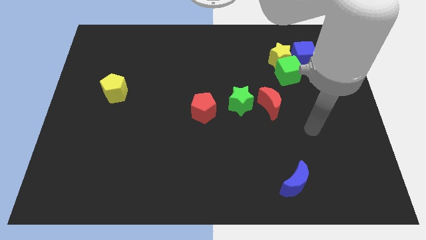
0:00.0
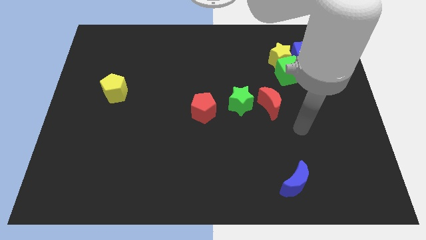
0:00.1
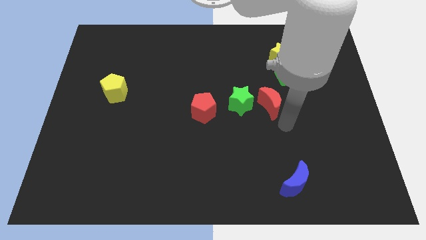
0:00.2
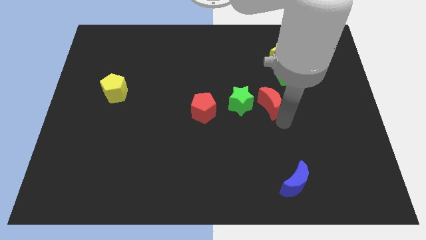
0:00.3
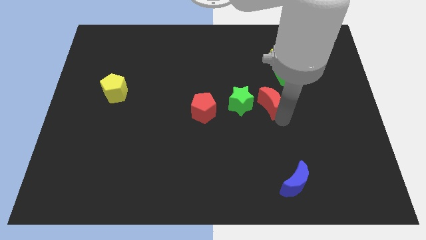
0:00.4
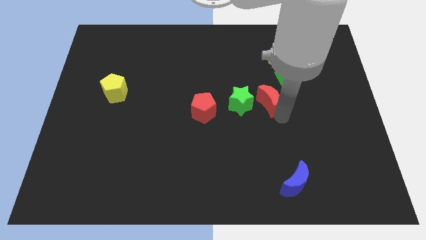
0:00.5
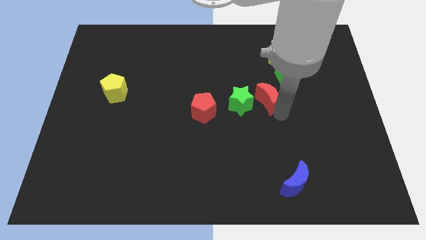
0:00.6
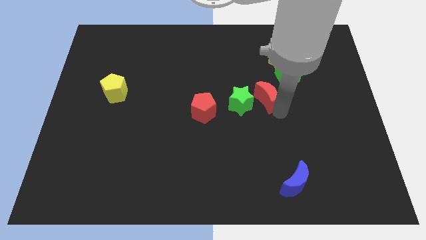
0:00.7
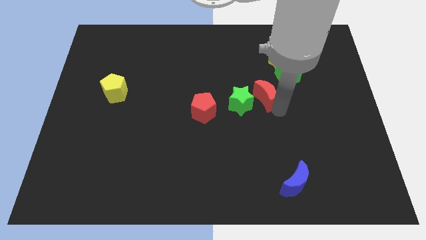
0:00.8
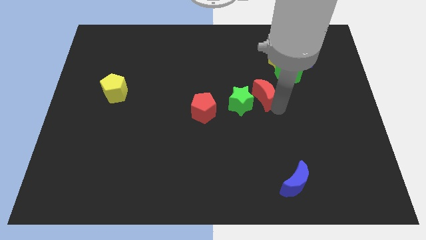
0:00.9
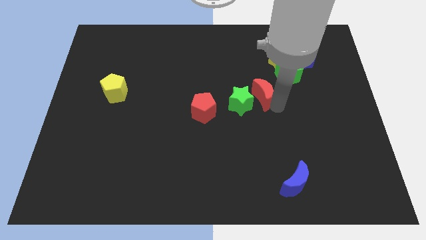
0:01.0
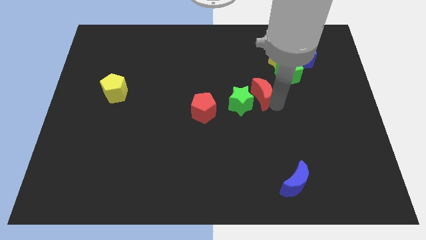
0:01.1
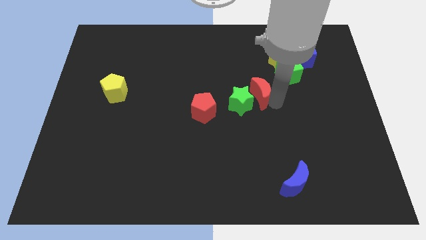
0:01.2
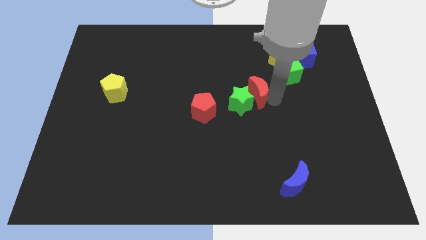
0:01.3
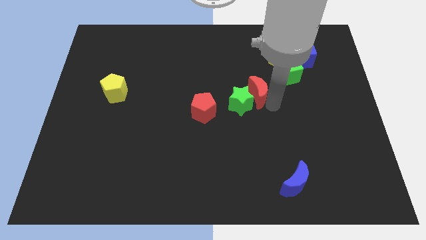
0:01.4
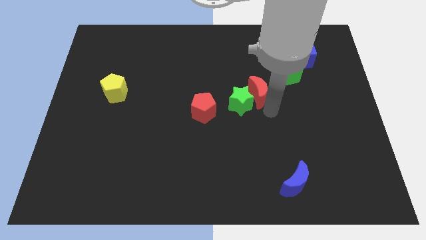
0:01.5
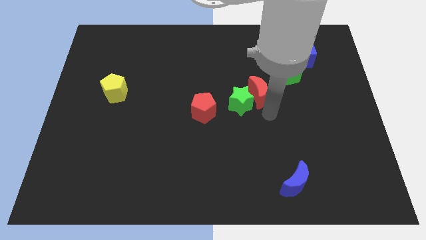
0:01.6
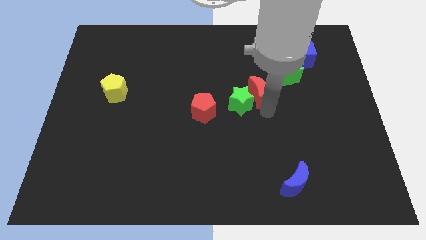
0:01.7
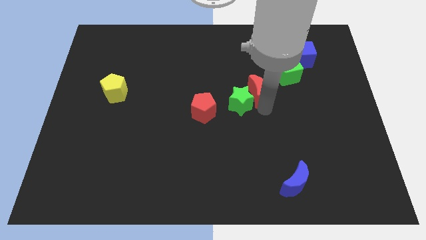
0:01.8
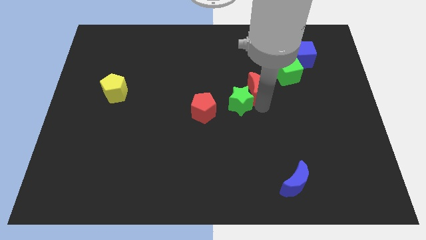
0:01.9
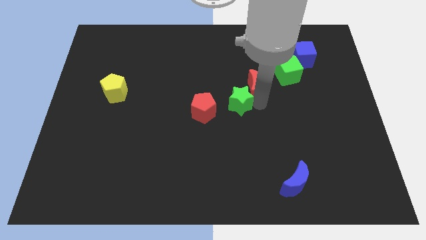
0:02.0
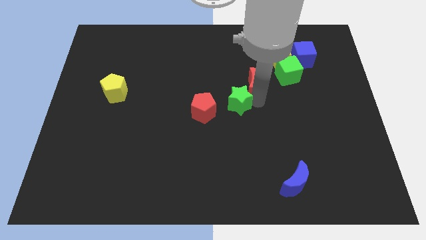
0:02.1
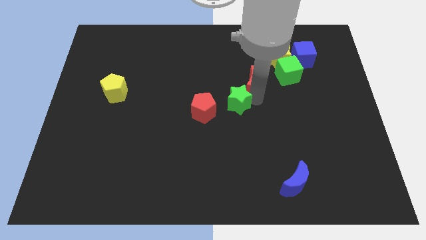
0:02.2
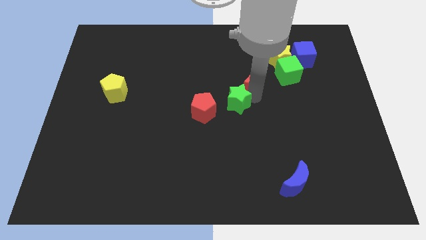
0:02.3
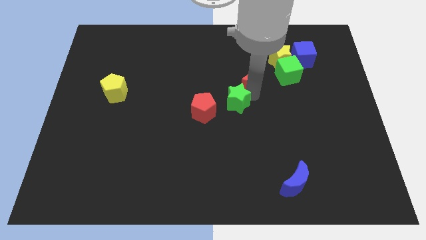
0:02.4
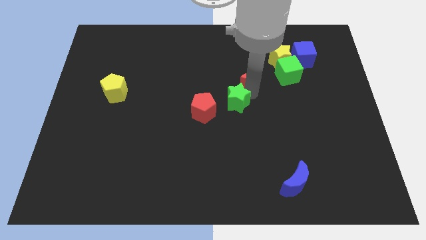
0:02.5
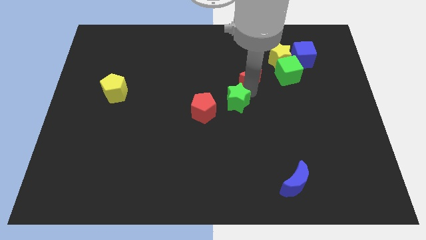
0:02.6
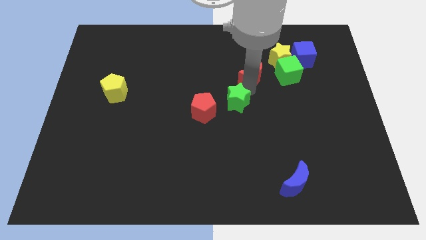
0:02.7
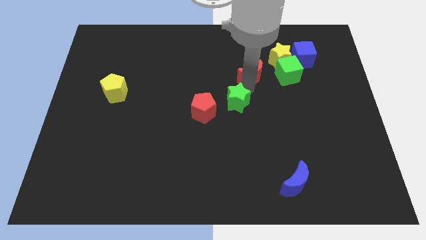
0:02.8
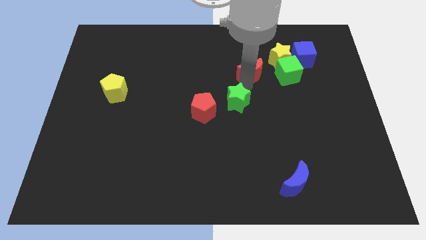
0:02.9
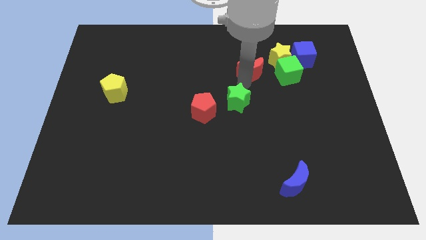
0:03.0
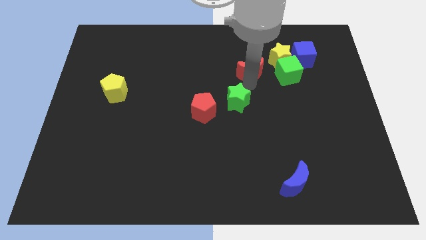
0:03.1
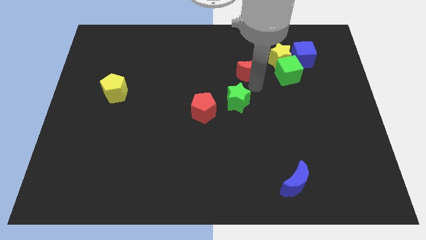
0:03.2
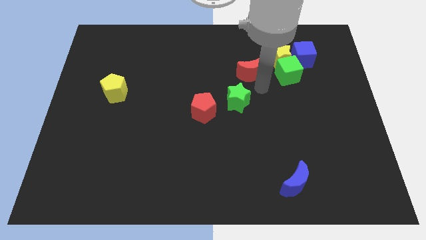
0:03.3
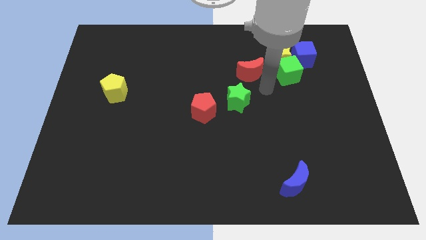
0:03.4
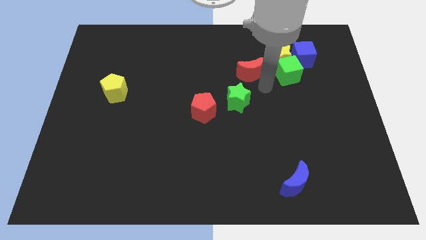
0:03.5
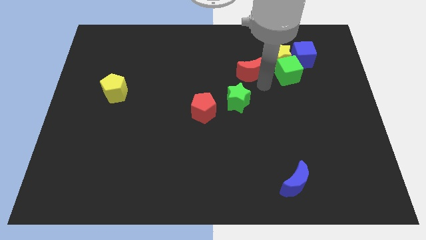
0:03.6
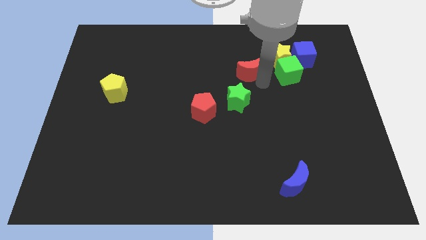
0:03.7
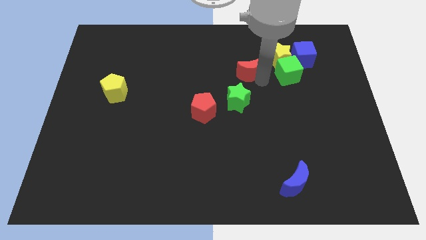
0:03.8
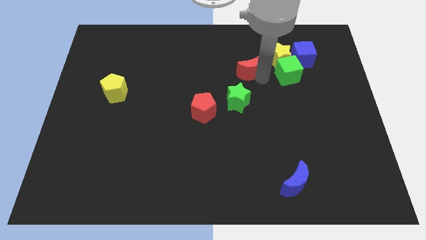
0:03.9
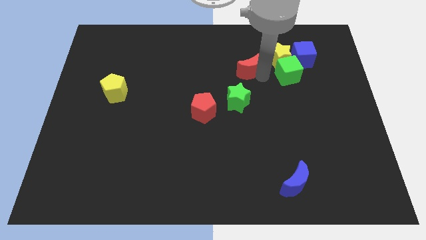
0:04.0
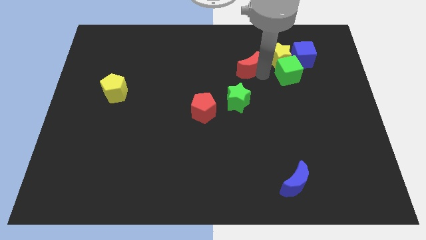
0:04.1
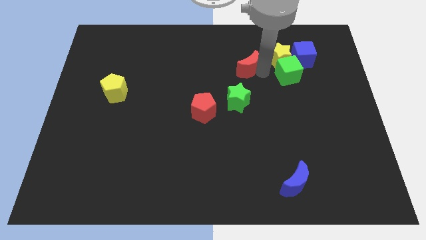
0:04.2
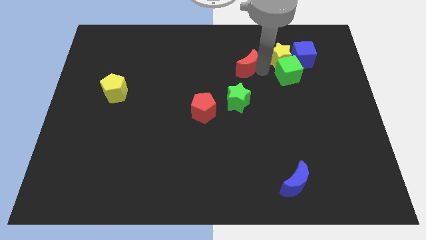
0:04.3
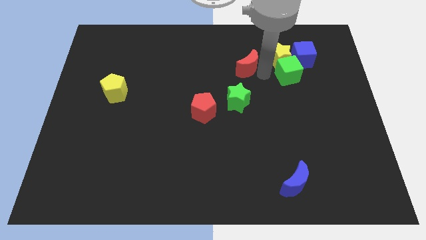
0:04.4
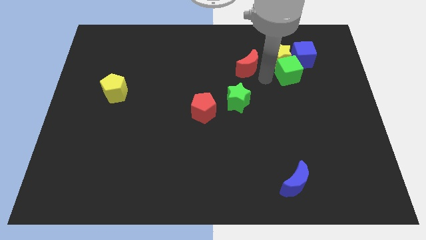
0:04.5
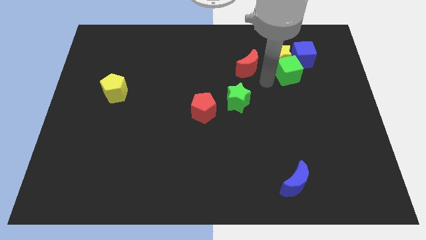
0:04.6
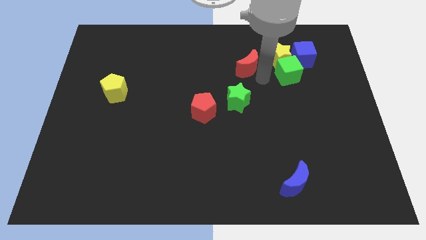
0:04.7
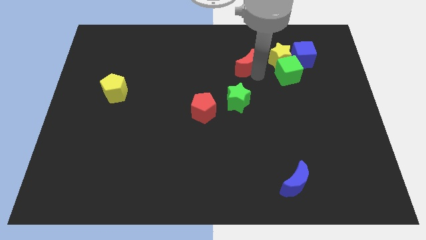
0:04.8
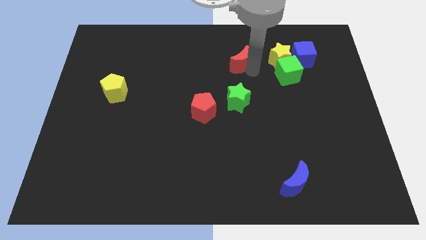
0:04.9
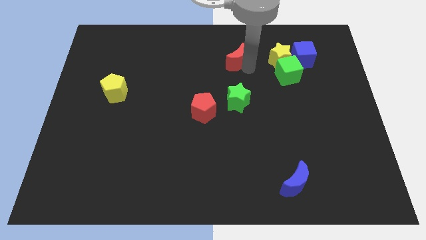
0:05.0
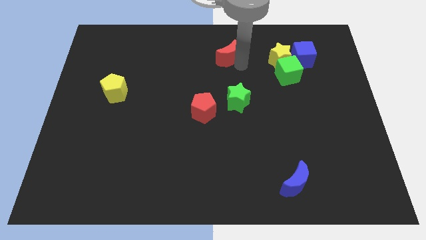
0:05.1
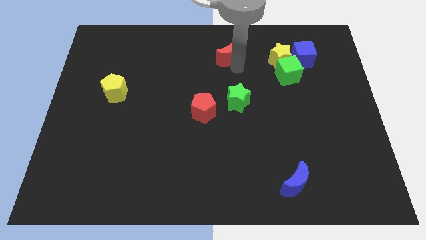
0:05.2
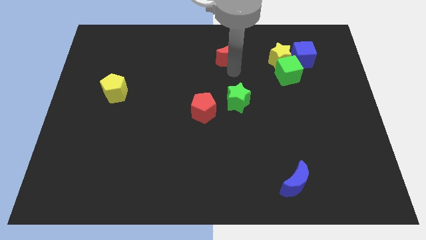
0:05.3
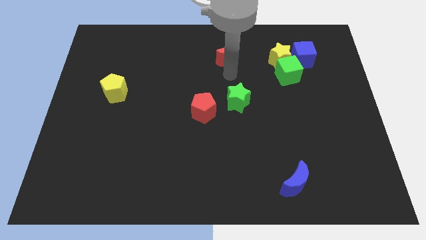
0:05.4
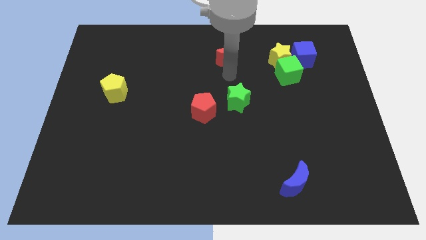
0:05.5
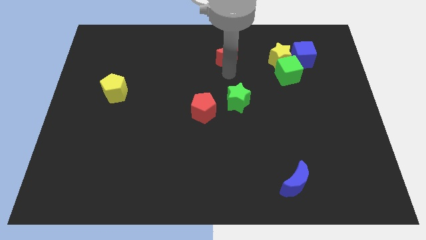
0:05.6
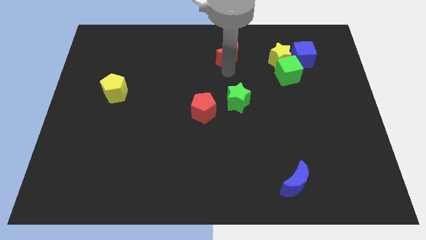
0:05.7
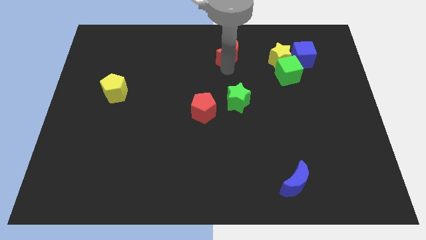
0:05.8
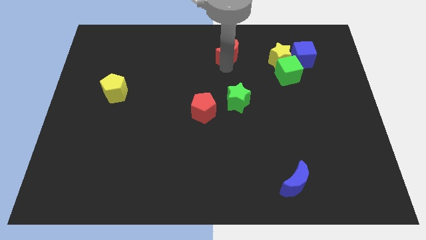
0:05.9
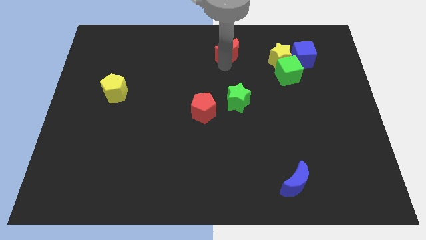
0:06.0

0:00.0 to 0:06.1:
move the red moon to the towards your base

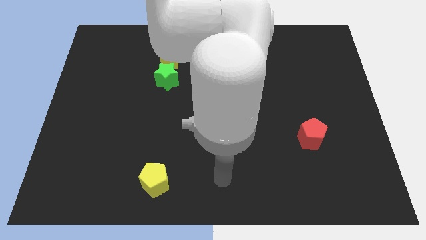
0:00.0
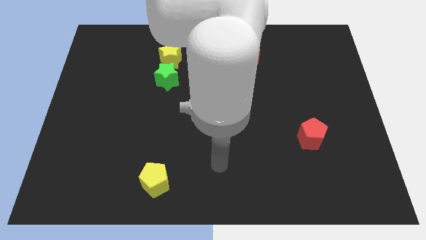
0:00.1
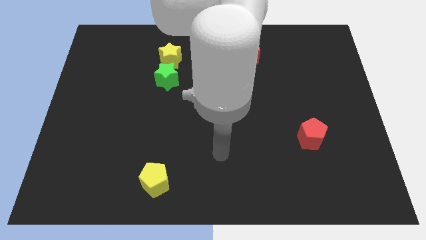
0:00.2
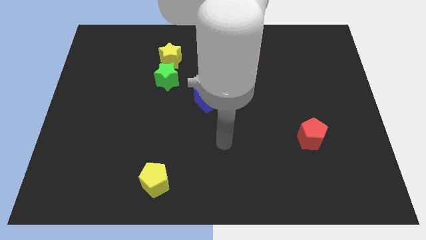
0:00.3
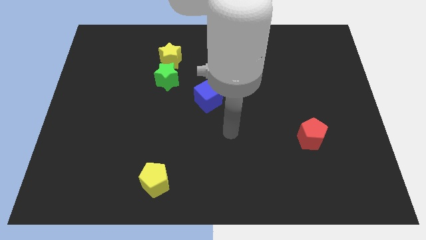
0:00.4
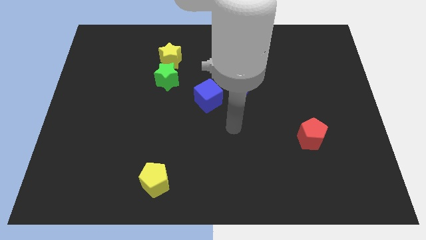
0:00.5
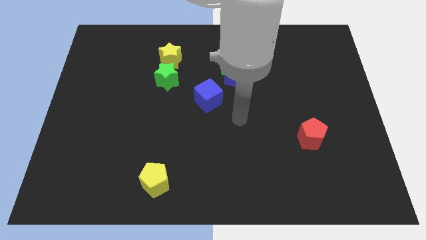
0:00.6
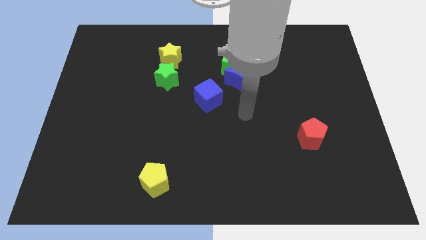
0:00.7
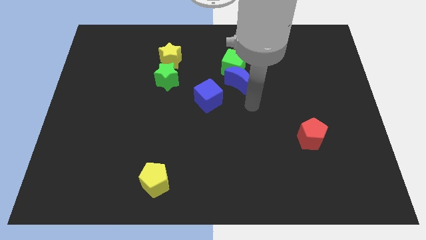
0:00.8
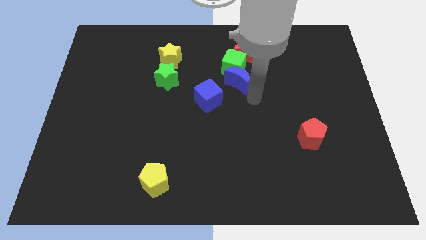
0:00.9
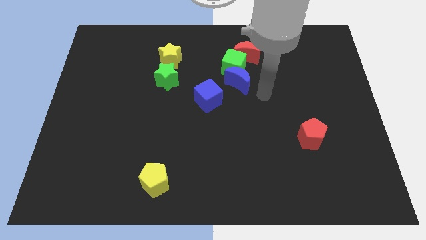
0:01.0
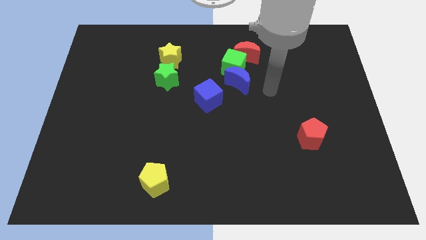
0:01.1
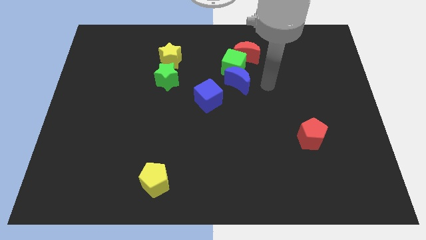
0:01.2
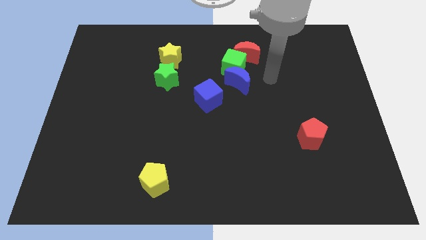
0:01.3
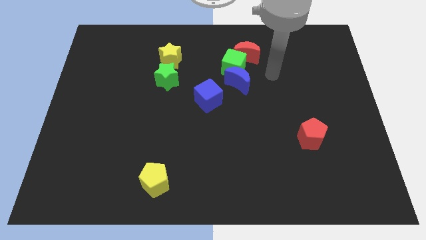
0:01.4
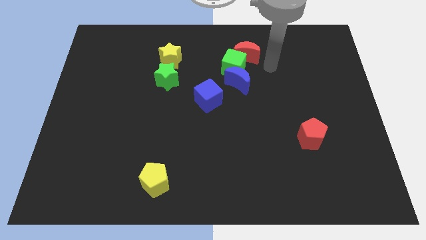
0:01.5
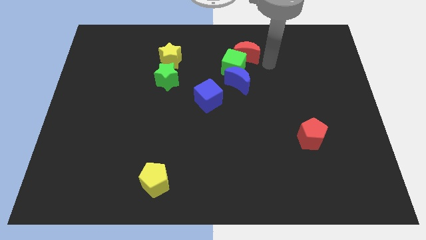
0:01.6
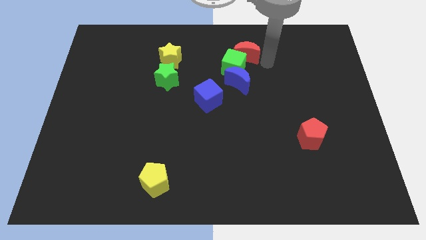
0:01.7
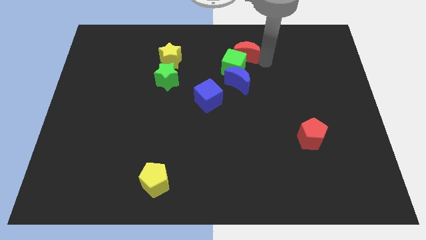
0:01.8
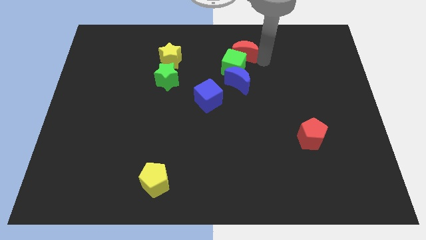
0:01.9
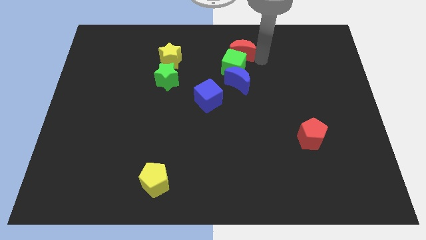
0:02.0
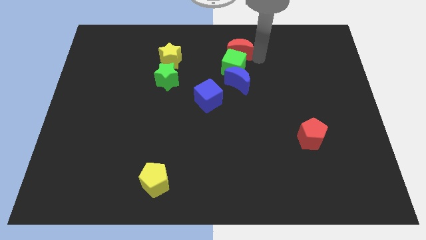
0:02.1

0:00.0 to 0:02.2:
put the red moon to the towards your base
